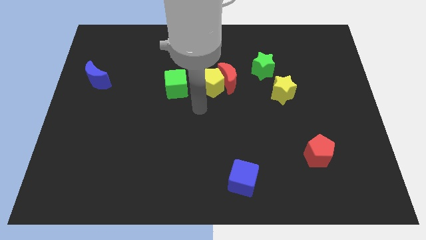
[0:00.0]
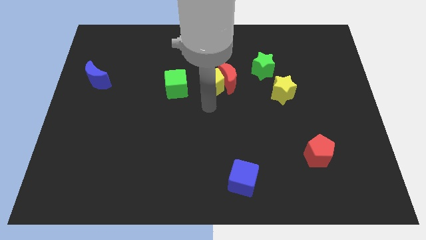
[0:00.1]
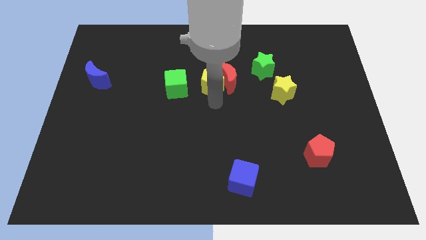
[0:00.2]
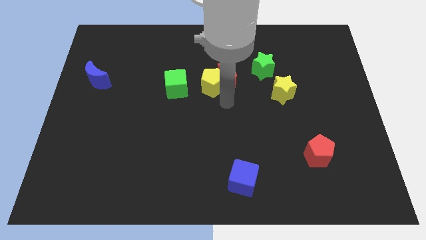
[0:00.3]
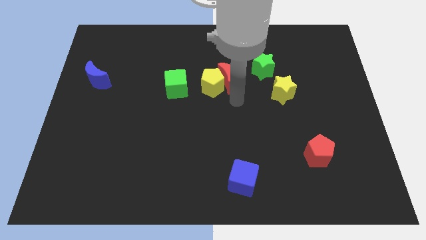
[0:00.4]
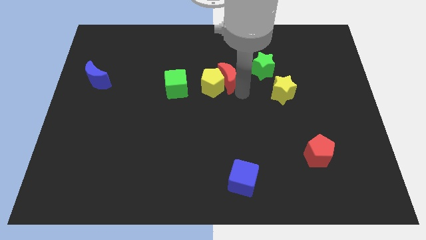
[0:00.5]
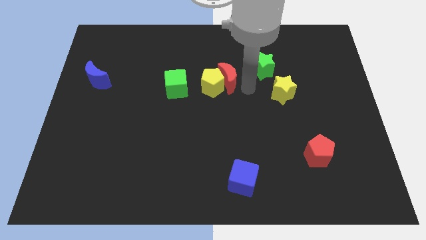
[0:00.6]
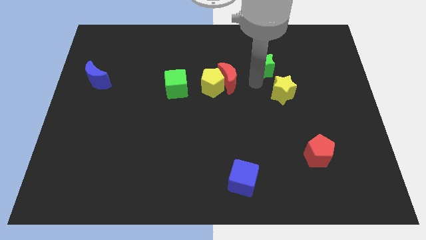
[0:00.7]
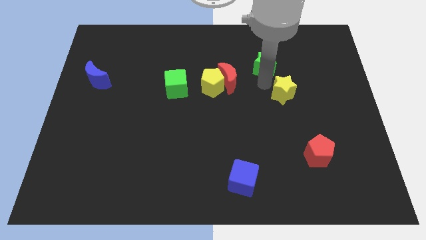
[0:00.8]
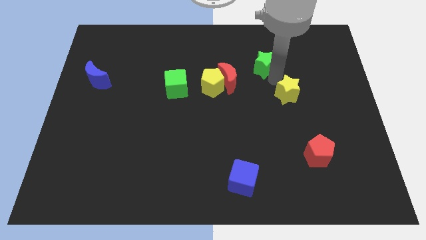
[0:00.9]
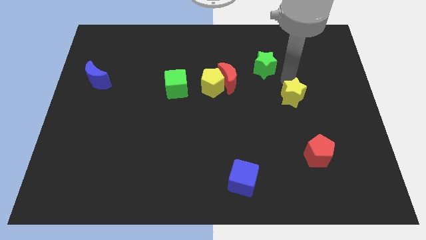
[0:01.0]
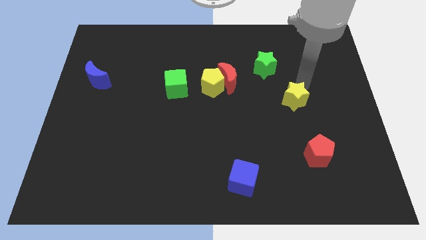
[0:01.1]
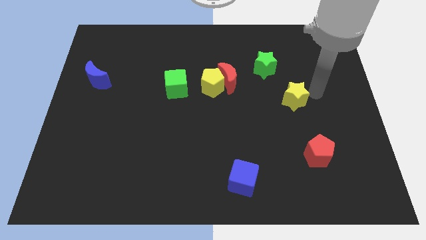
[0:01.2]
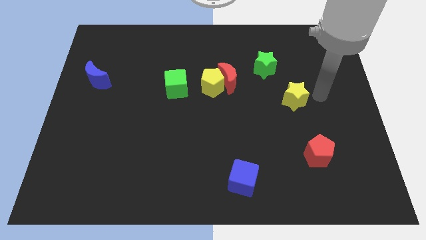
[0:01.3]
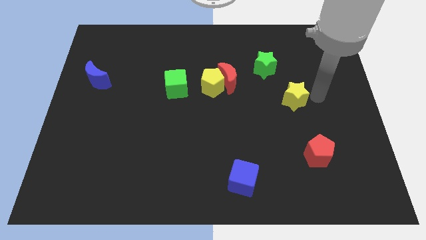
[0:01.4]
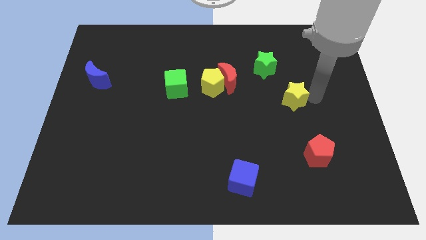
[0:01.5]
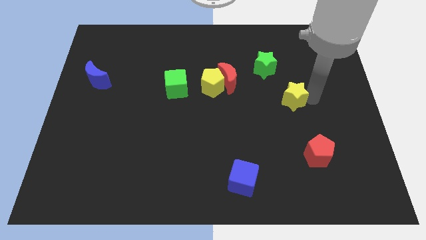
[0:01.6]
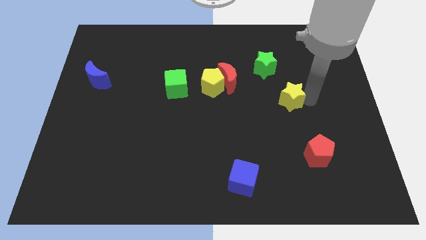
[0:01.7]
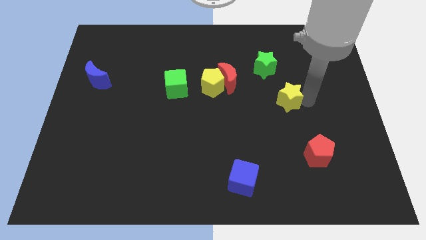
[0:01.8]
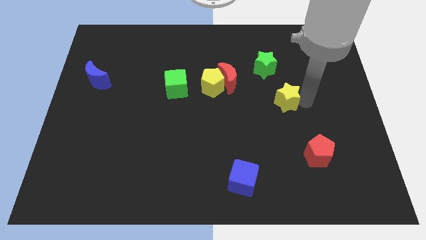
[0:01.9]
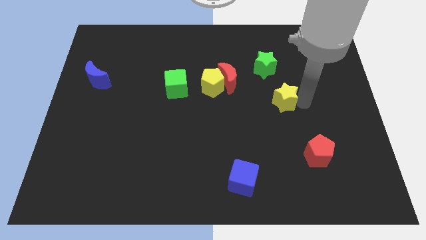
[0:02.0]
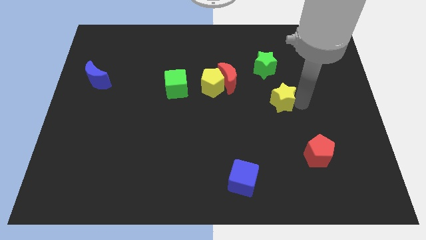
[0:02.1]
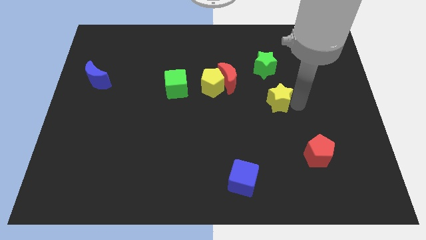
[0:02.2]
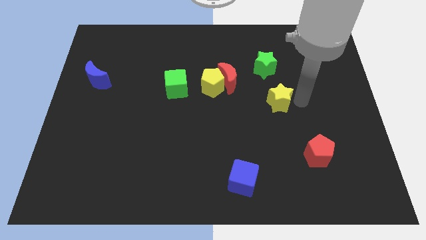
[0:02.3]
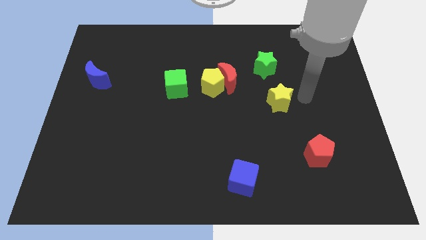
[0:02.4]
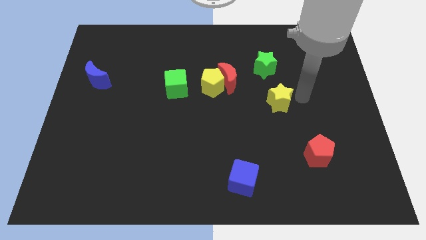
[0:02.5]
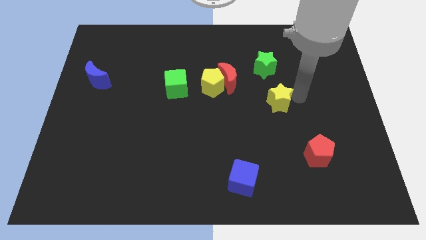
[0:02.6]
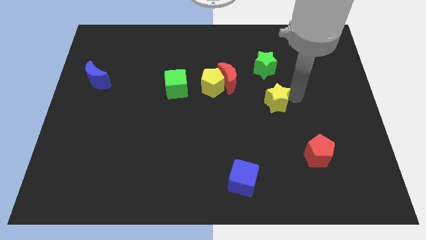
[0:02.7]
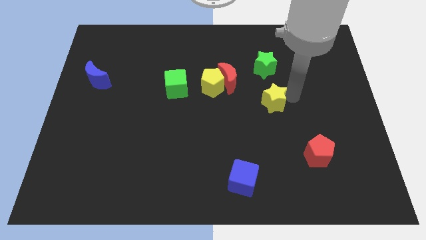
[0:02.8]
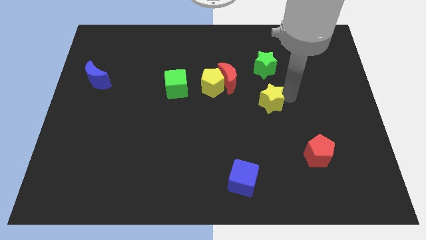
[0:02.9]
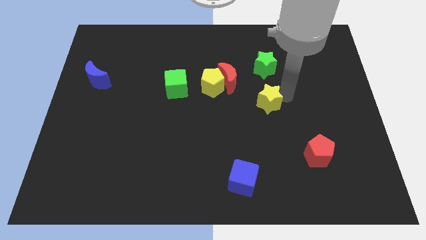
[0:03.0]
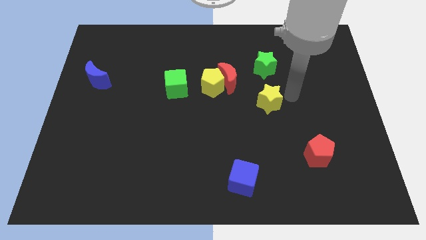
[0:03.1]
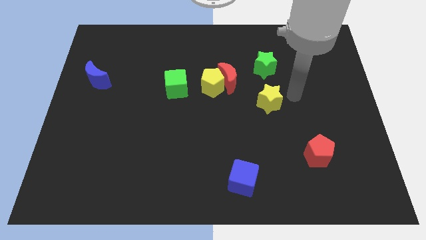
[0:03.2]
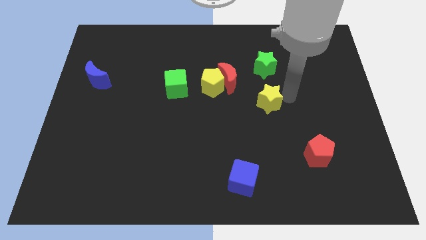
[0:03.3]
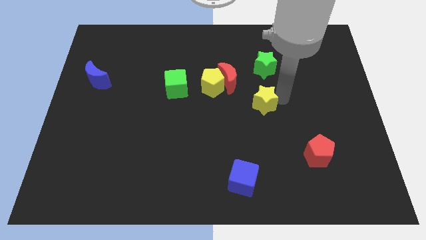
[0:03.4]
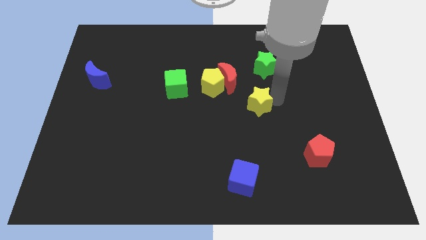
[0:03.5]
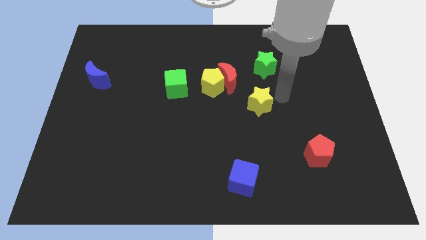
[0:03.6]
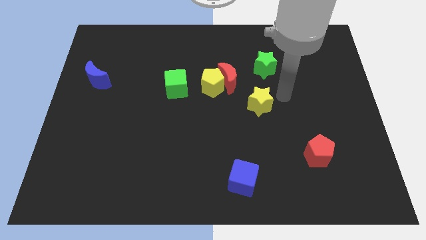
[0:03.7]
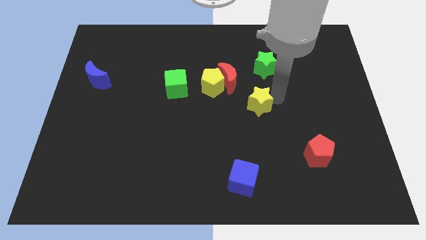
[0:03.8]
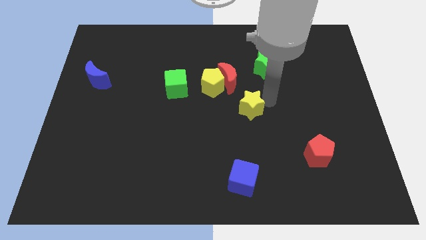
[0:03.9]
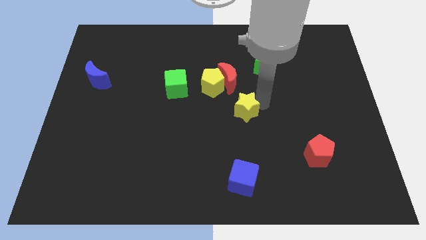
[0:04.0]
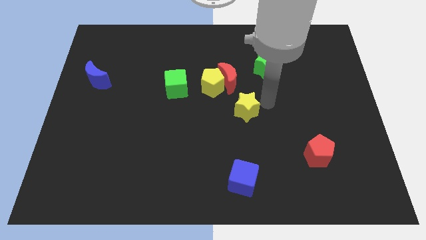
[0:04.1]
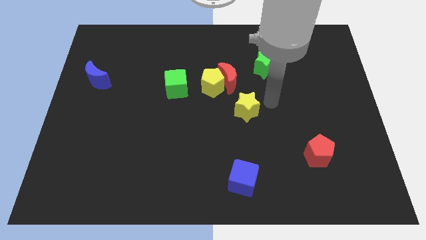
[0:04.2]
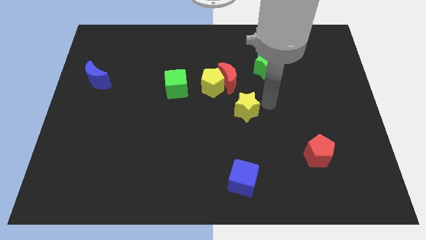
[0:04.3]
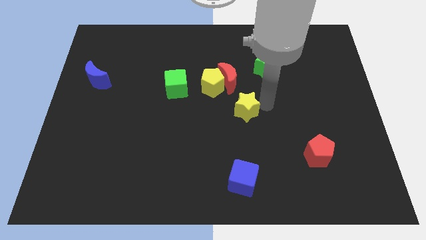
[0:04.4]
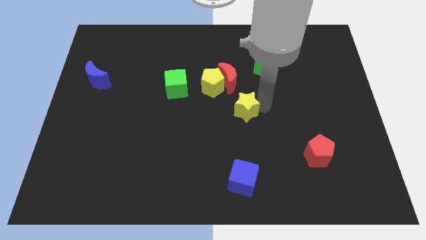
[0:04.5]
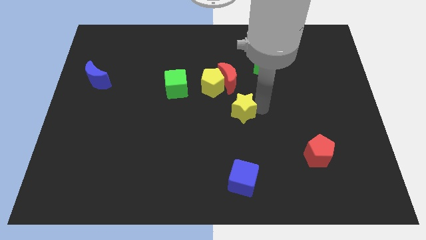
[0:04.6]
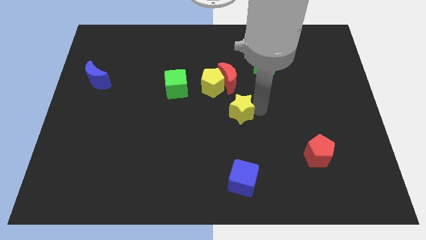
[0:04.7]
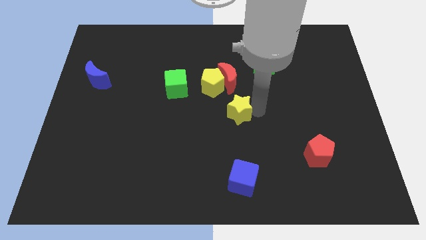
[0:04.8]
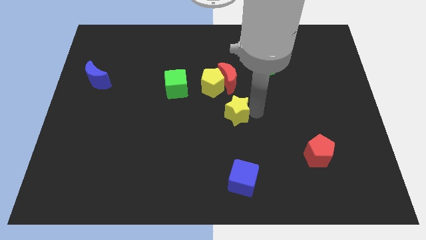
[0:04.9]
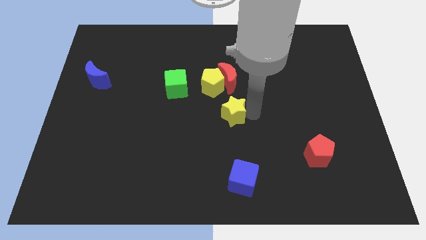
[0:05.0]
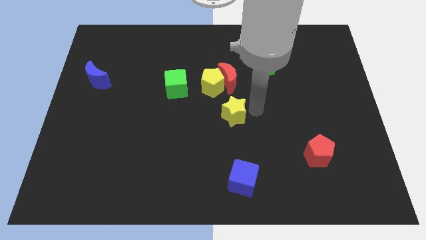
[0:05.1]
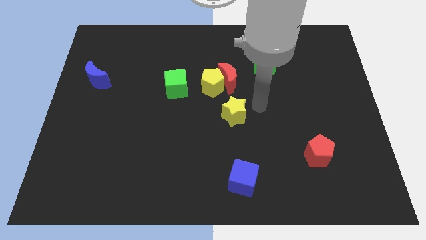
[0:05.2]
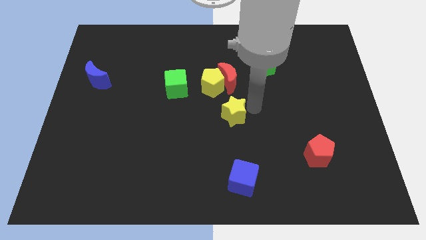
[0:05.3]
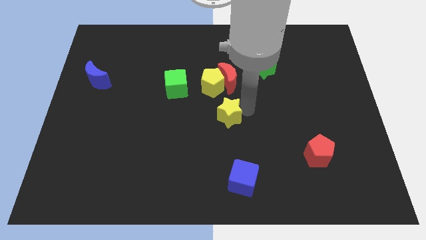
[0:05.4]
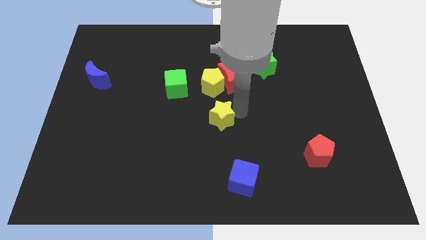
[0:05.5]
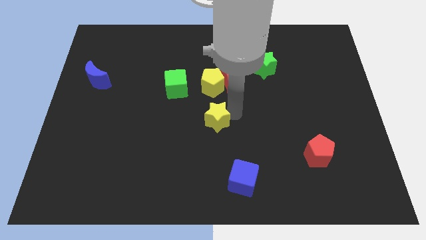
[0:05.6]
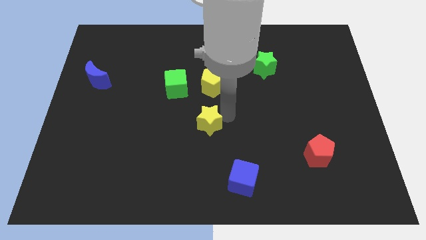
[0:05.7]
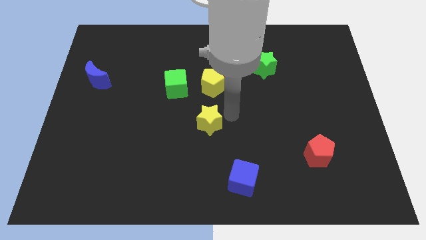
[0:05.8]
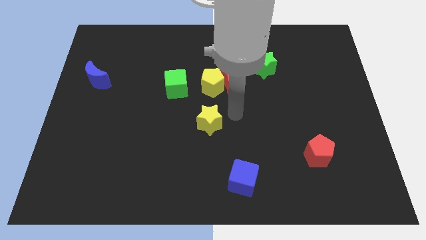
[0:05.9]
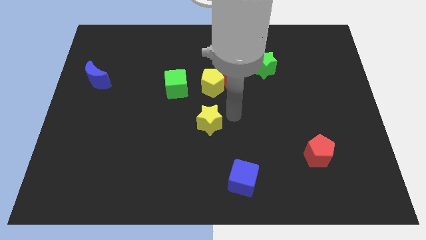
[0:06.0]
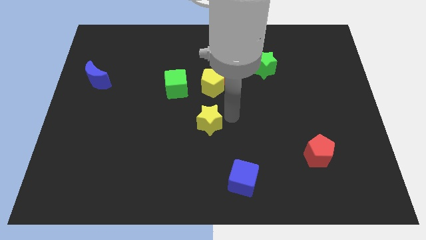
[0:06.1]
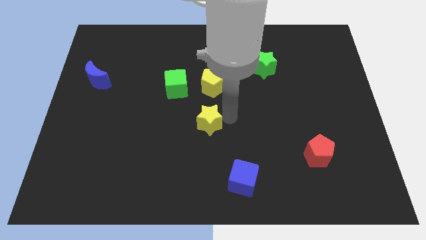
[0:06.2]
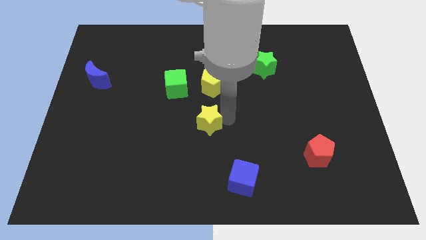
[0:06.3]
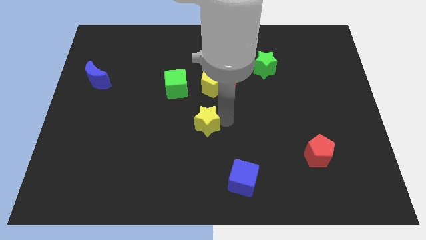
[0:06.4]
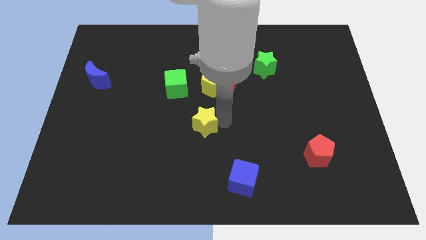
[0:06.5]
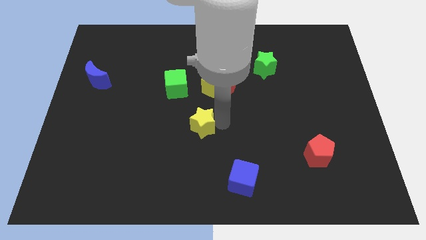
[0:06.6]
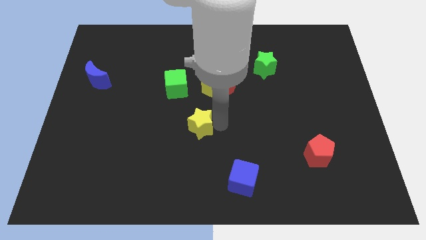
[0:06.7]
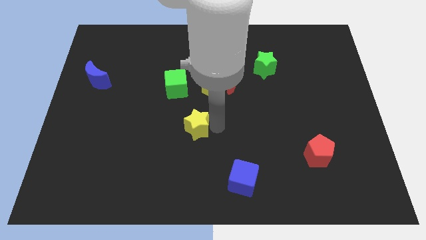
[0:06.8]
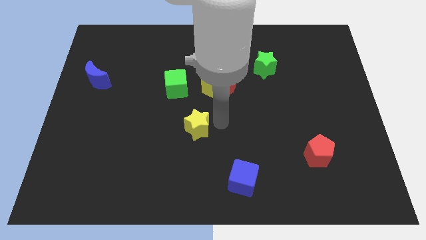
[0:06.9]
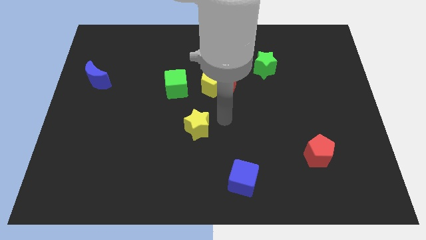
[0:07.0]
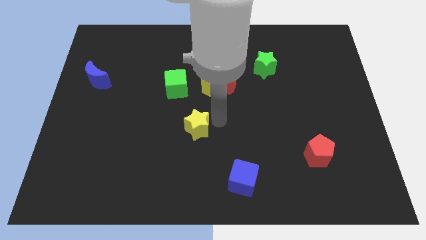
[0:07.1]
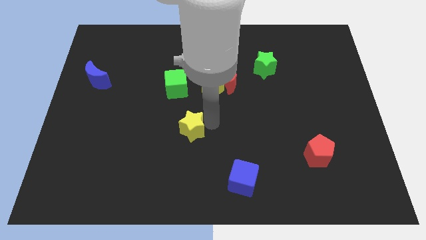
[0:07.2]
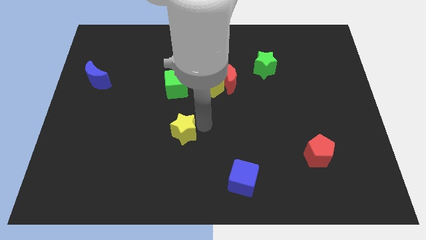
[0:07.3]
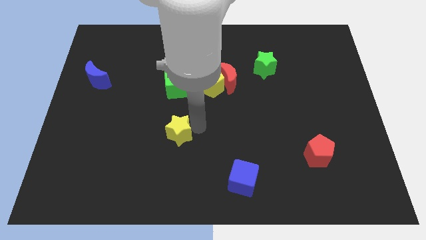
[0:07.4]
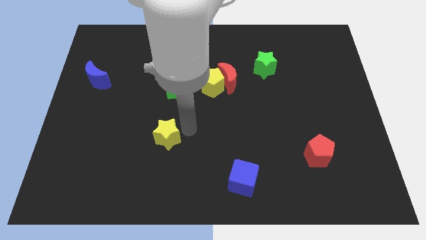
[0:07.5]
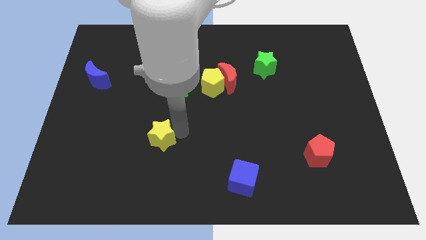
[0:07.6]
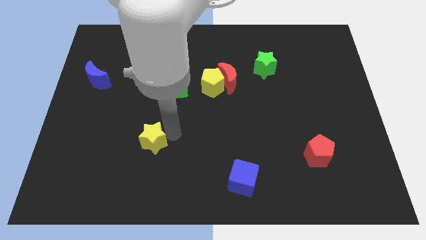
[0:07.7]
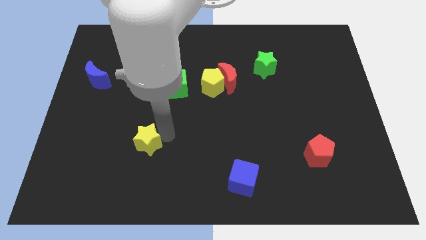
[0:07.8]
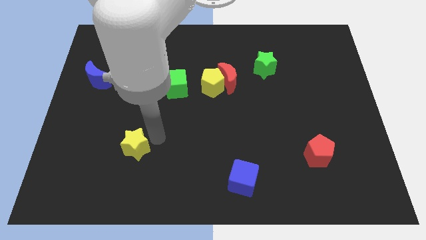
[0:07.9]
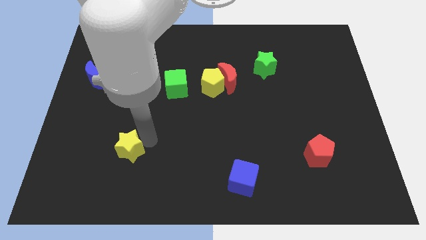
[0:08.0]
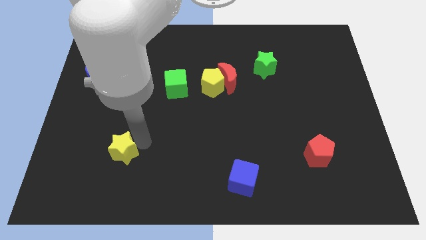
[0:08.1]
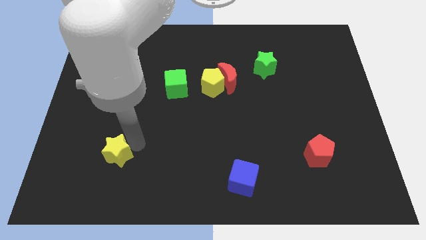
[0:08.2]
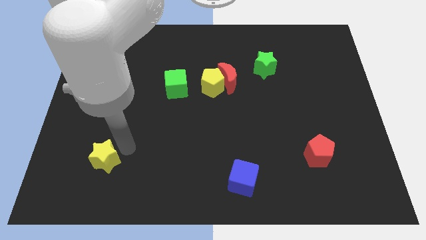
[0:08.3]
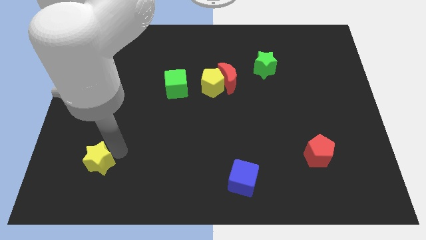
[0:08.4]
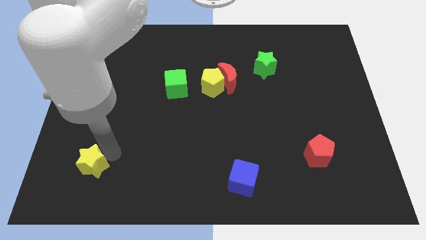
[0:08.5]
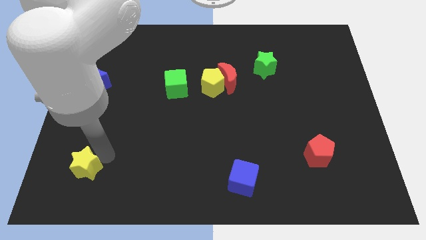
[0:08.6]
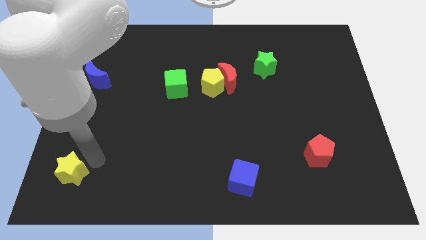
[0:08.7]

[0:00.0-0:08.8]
push the yellow star to the bottom left of the board
